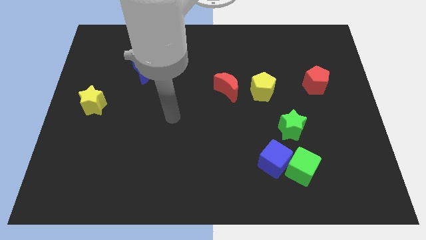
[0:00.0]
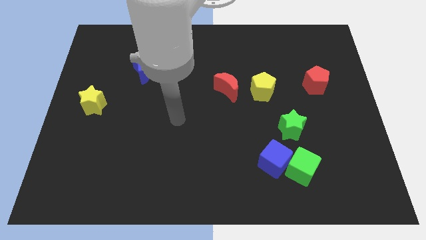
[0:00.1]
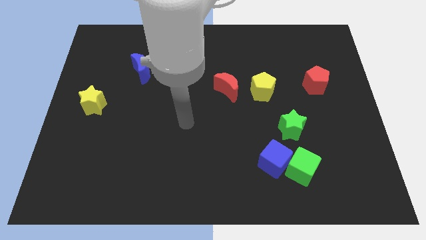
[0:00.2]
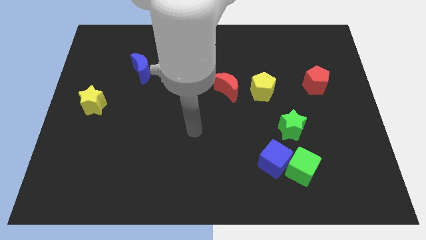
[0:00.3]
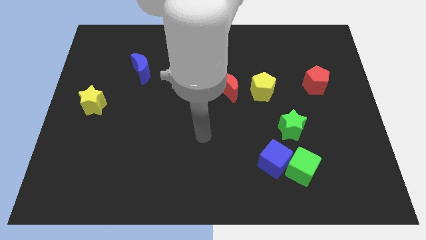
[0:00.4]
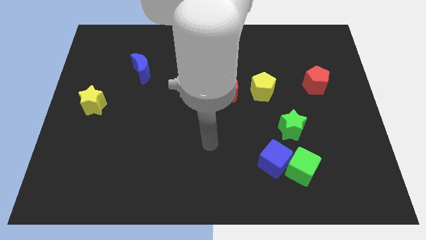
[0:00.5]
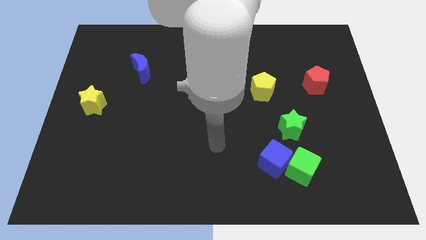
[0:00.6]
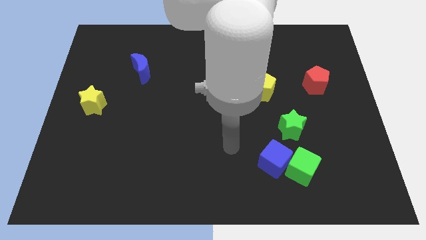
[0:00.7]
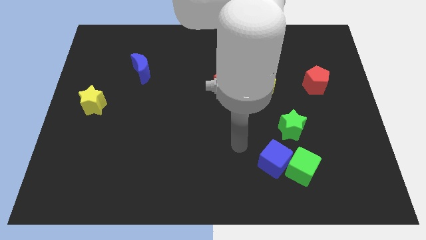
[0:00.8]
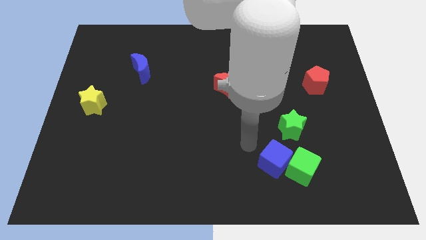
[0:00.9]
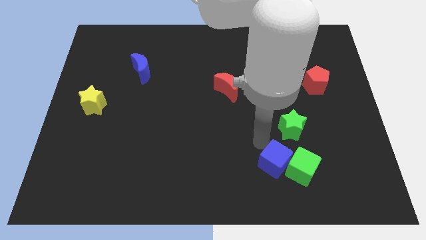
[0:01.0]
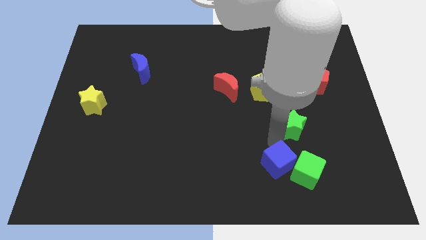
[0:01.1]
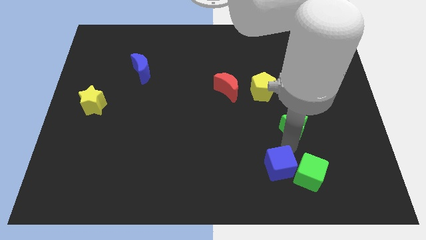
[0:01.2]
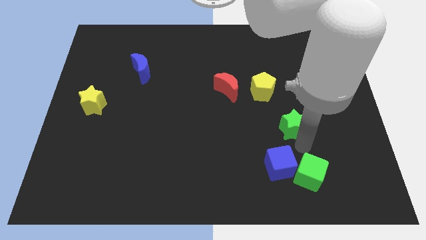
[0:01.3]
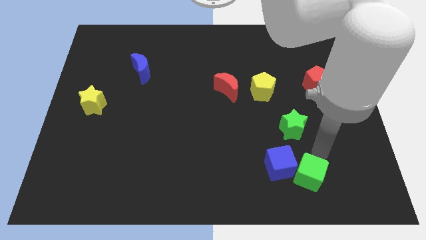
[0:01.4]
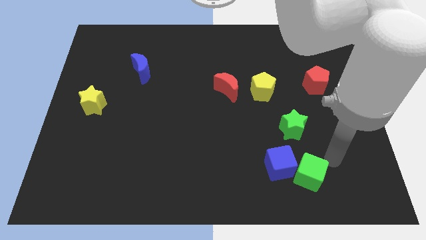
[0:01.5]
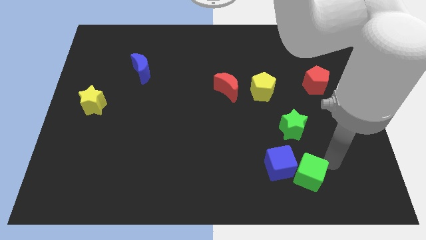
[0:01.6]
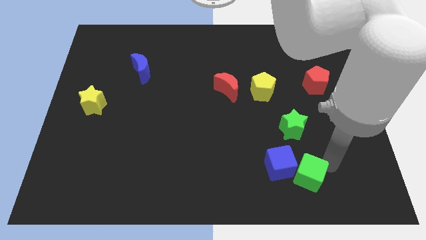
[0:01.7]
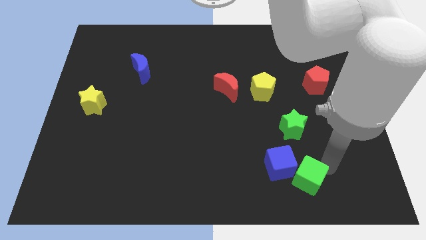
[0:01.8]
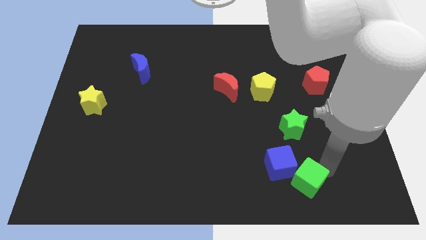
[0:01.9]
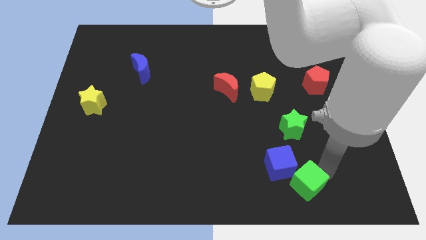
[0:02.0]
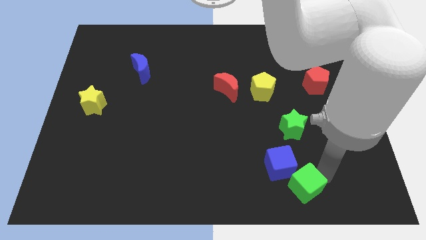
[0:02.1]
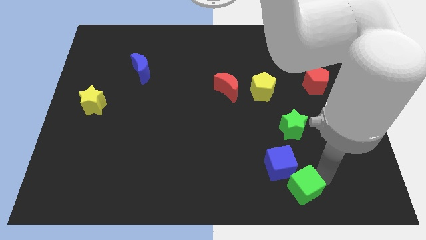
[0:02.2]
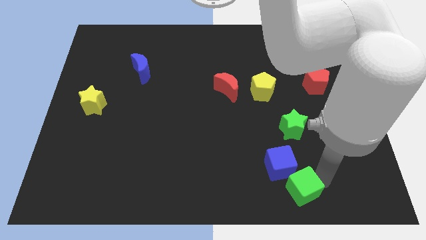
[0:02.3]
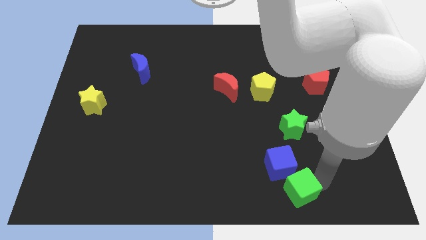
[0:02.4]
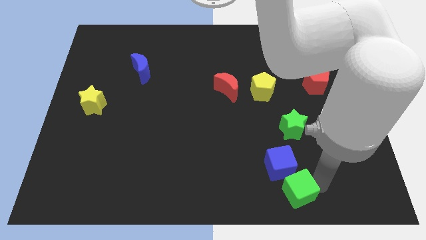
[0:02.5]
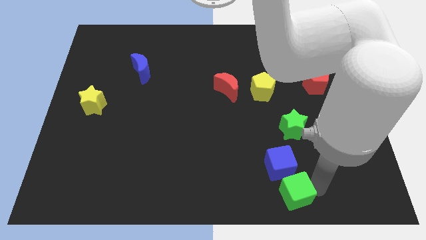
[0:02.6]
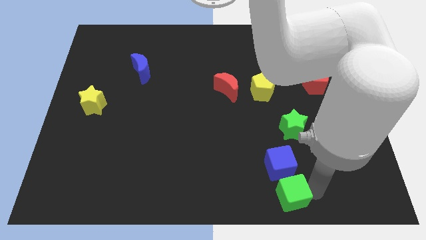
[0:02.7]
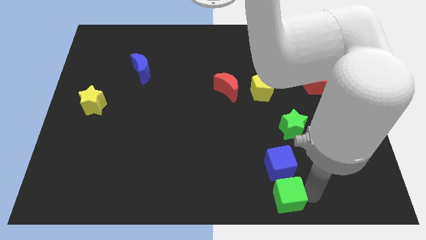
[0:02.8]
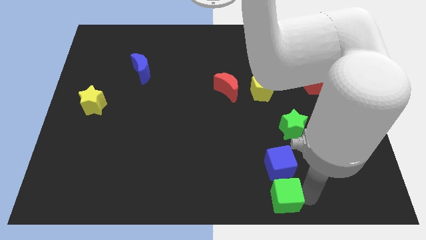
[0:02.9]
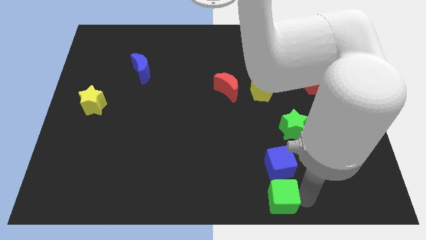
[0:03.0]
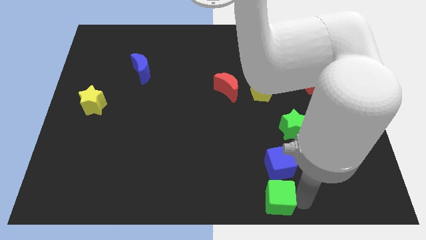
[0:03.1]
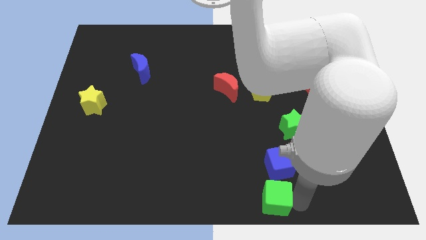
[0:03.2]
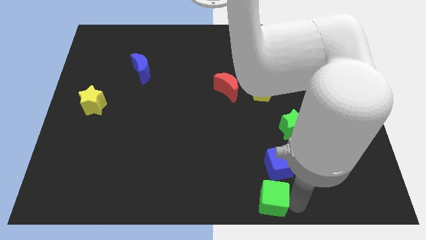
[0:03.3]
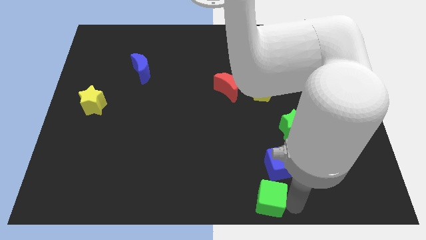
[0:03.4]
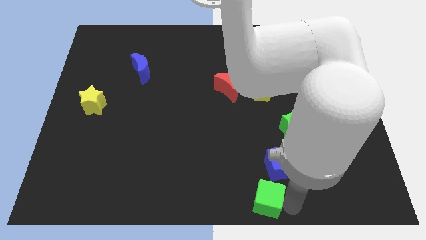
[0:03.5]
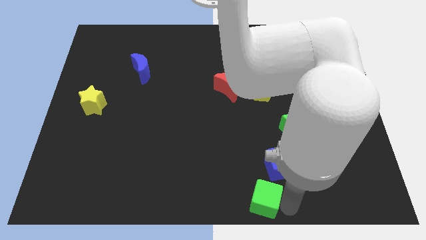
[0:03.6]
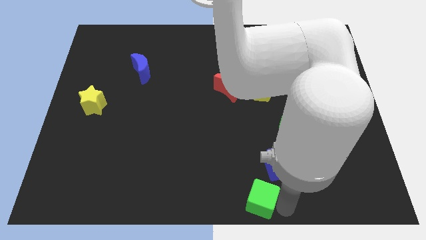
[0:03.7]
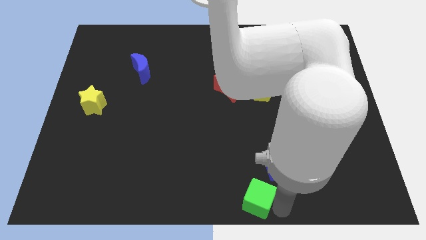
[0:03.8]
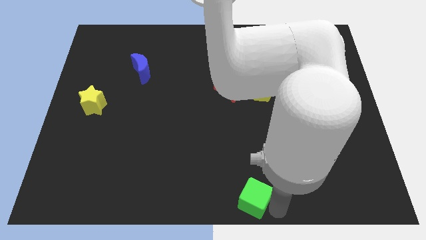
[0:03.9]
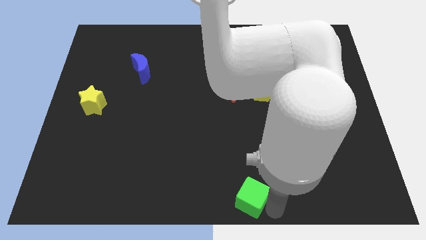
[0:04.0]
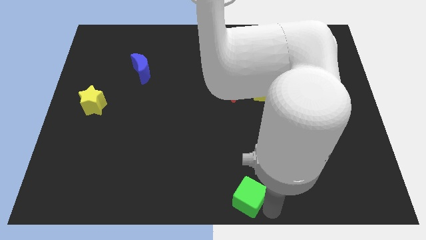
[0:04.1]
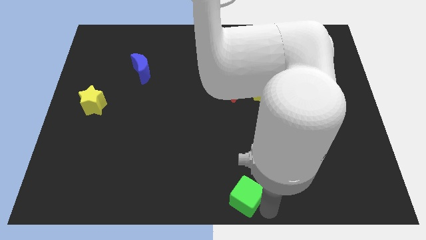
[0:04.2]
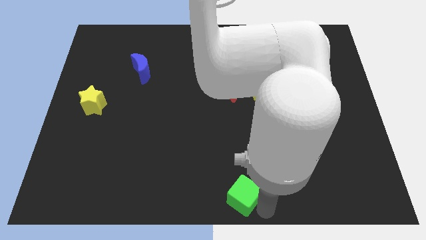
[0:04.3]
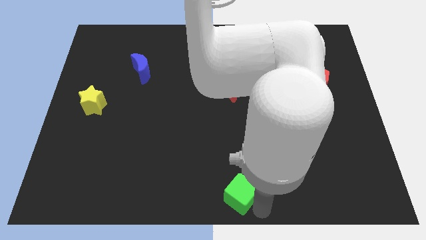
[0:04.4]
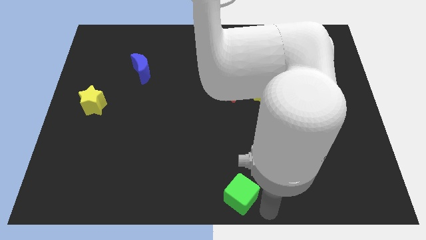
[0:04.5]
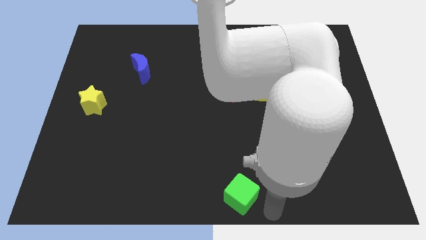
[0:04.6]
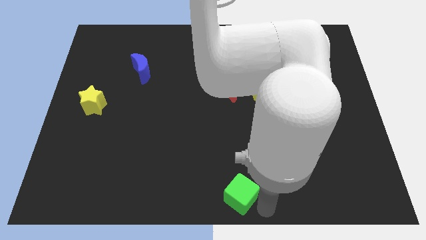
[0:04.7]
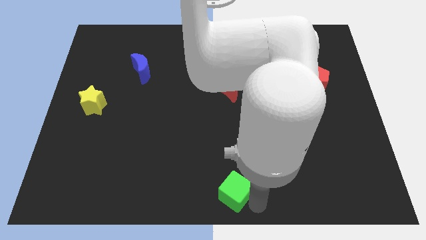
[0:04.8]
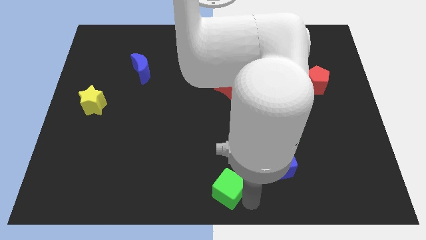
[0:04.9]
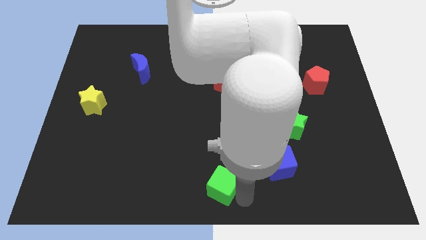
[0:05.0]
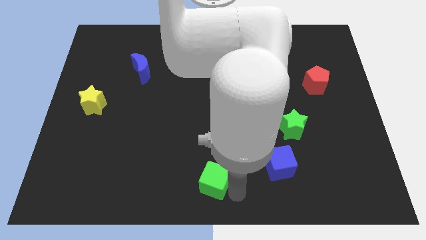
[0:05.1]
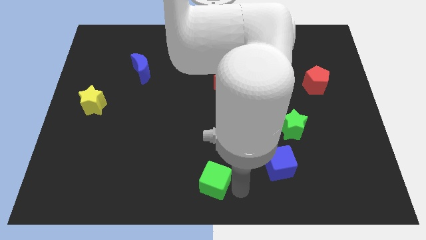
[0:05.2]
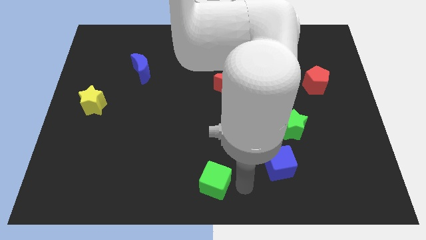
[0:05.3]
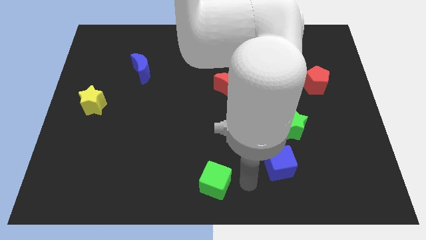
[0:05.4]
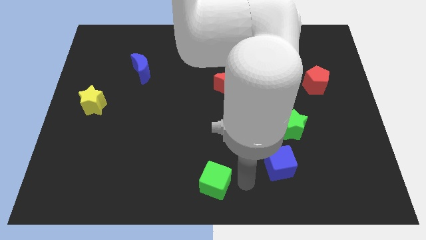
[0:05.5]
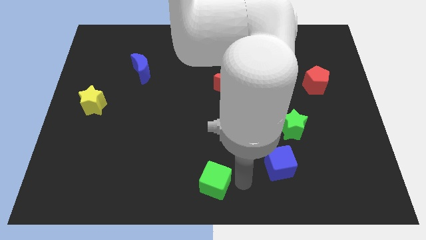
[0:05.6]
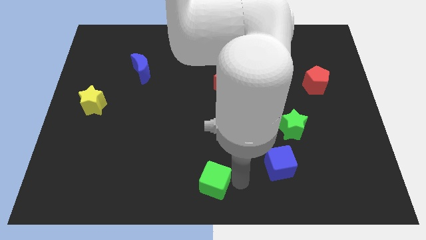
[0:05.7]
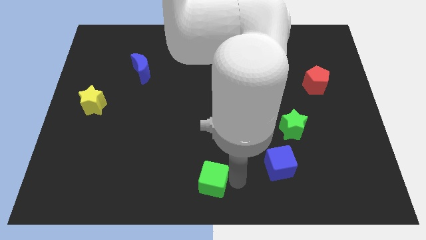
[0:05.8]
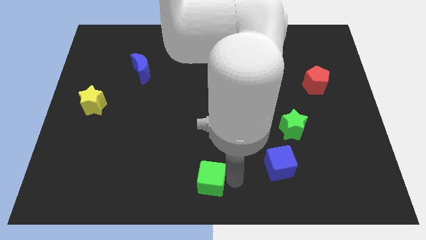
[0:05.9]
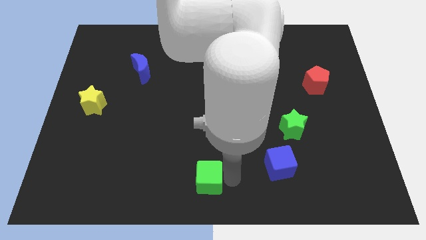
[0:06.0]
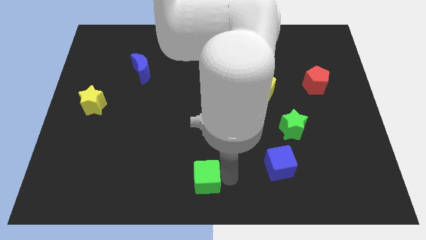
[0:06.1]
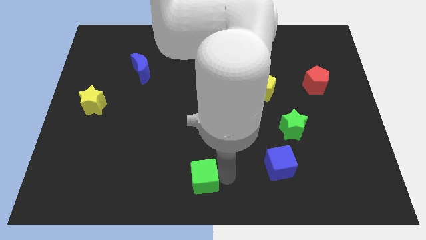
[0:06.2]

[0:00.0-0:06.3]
push the green cube left

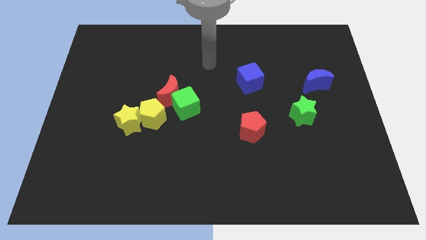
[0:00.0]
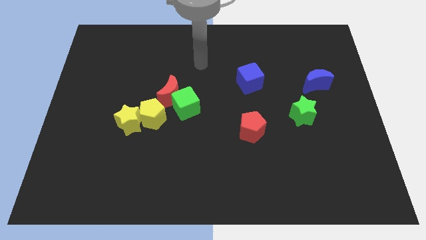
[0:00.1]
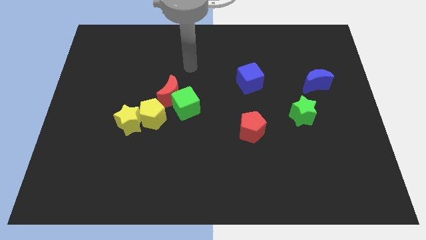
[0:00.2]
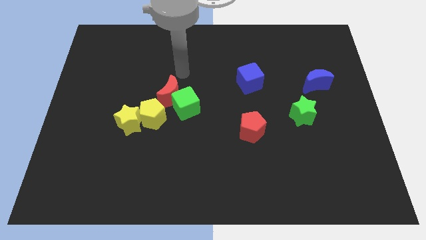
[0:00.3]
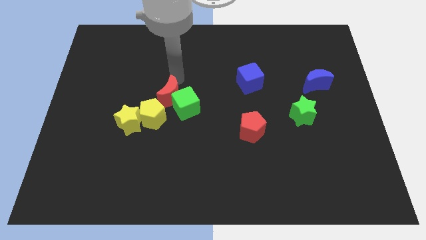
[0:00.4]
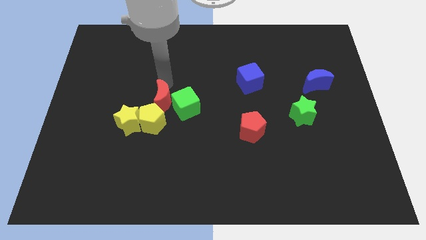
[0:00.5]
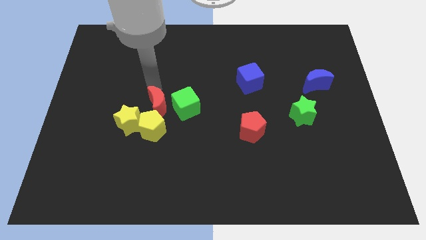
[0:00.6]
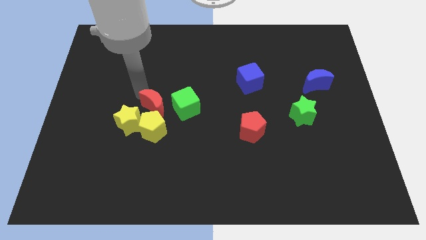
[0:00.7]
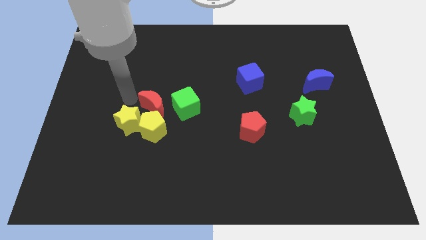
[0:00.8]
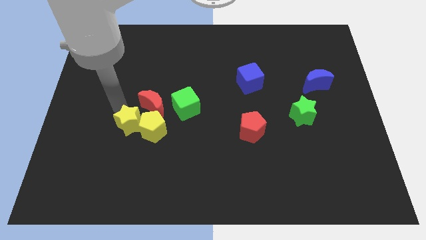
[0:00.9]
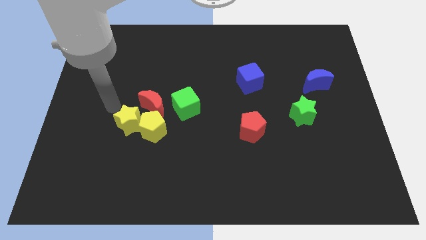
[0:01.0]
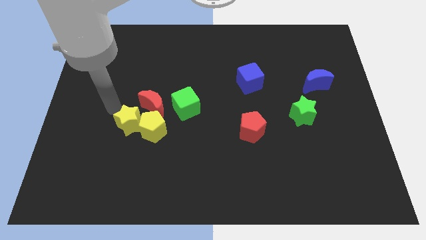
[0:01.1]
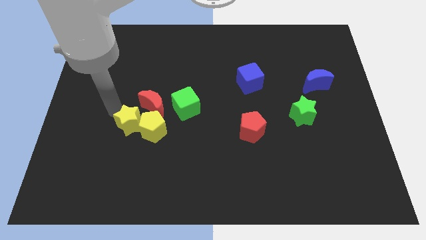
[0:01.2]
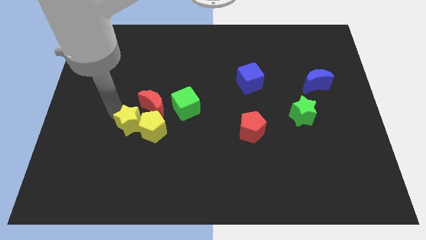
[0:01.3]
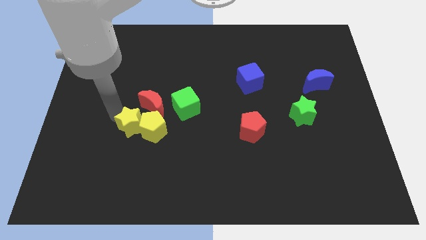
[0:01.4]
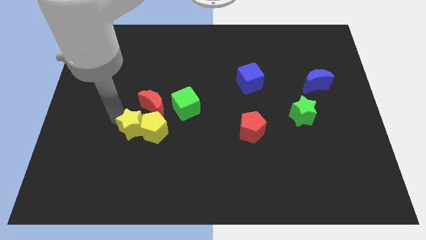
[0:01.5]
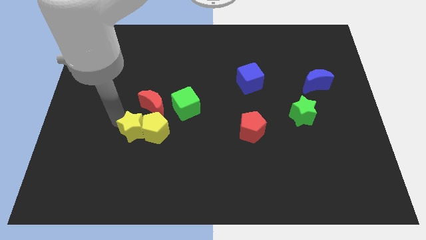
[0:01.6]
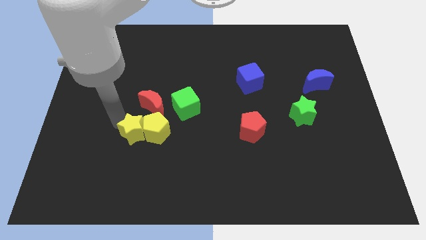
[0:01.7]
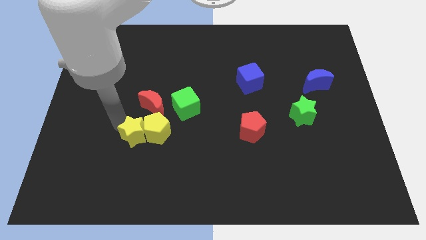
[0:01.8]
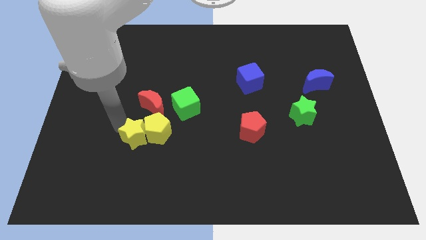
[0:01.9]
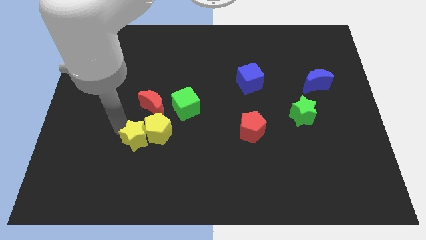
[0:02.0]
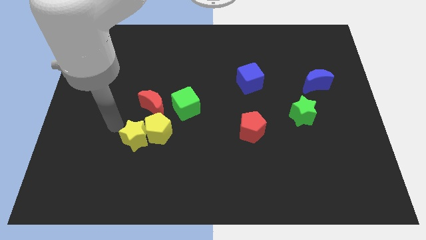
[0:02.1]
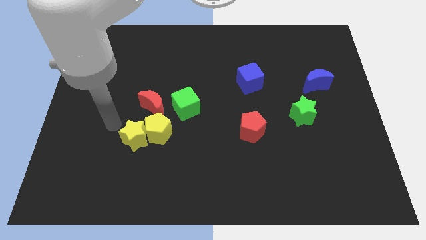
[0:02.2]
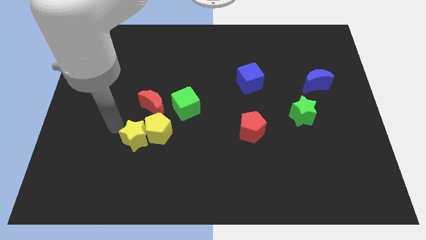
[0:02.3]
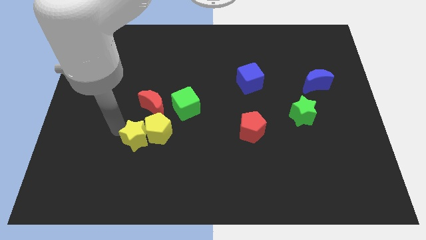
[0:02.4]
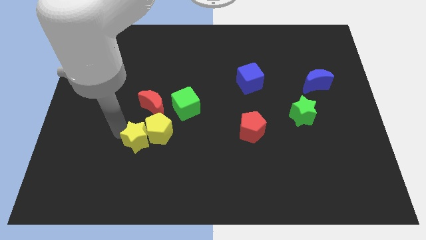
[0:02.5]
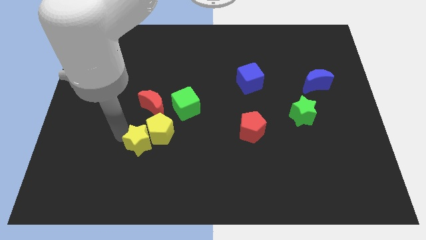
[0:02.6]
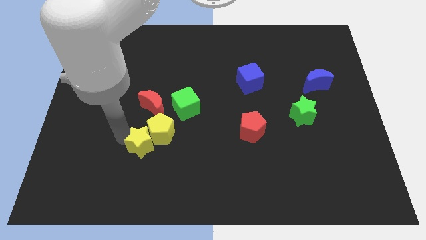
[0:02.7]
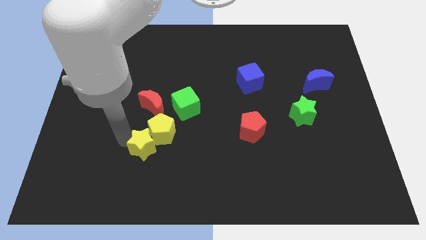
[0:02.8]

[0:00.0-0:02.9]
push the yellow star a bit down and to the right
